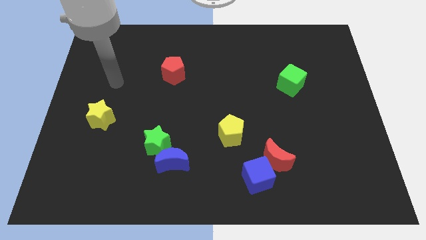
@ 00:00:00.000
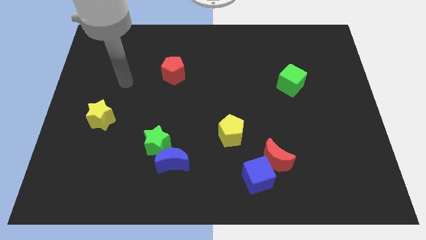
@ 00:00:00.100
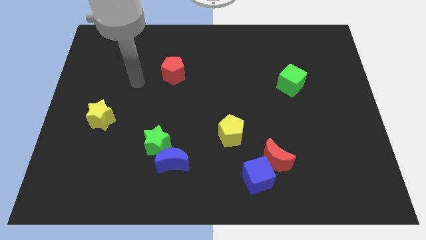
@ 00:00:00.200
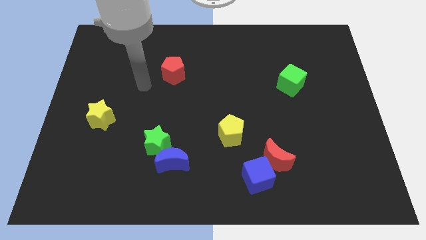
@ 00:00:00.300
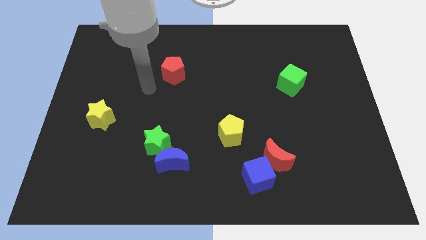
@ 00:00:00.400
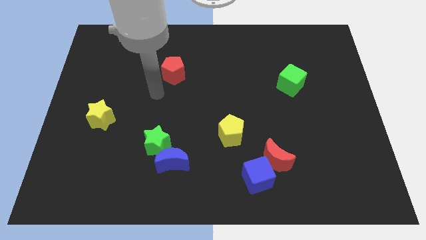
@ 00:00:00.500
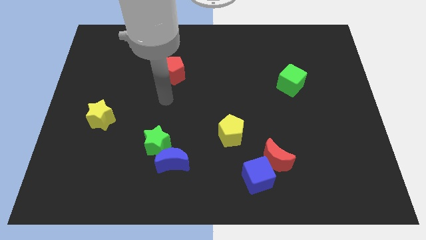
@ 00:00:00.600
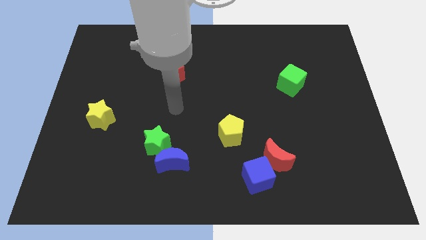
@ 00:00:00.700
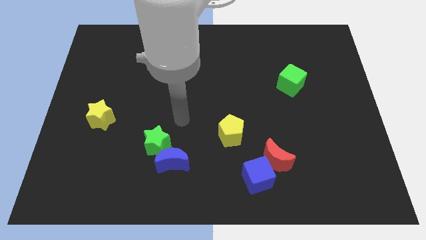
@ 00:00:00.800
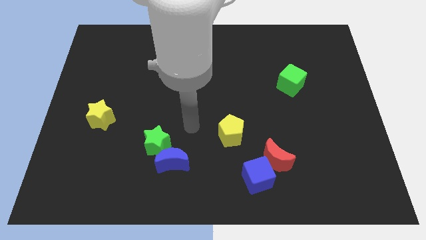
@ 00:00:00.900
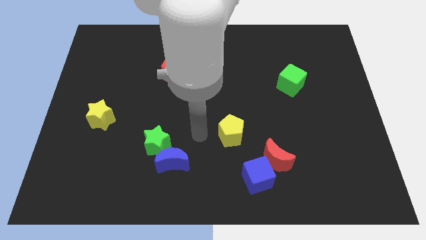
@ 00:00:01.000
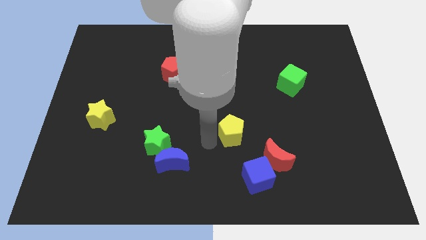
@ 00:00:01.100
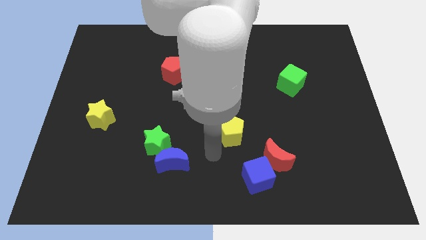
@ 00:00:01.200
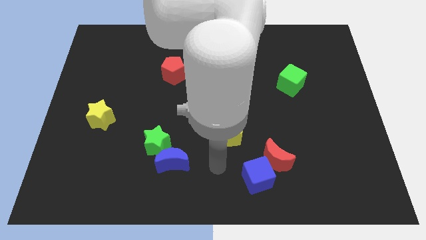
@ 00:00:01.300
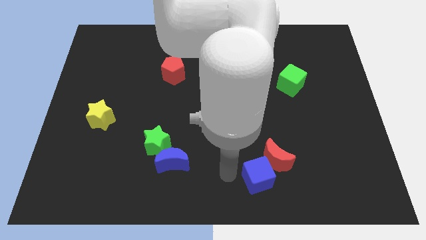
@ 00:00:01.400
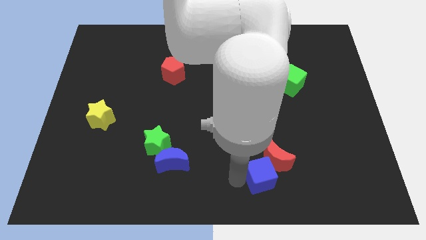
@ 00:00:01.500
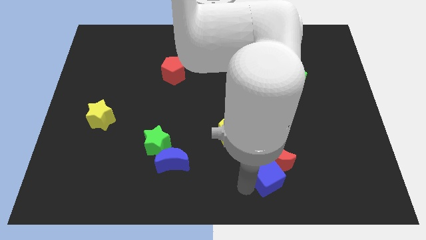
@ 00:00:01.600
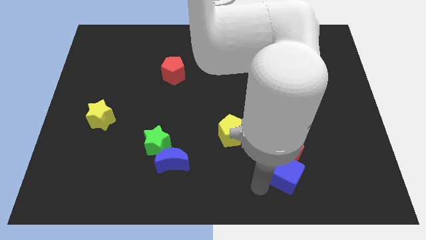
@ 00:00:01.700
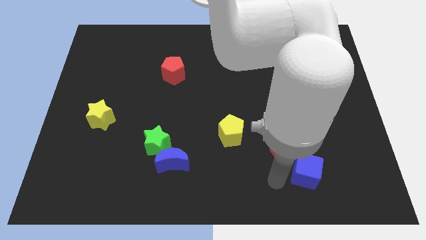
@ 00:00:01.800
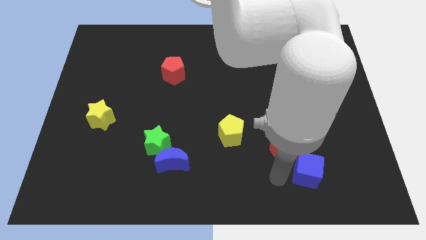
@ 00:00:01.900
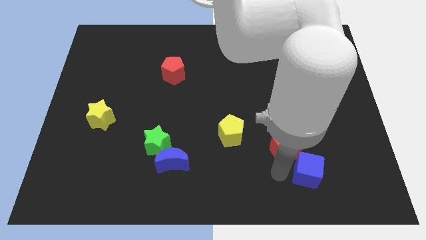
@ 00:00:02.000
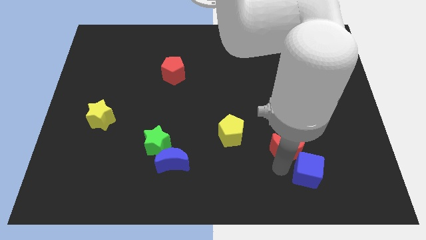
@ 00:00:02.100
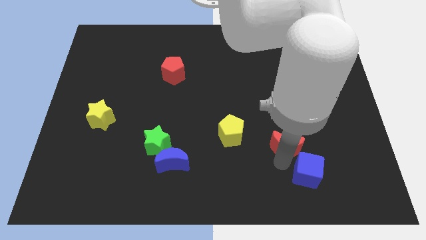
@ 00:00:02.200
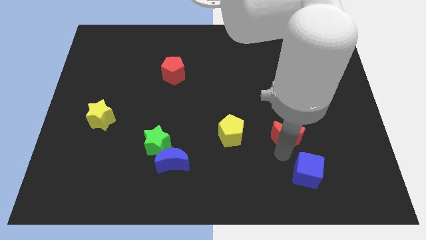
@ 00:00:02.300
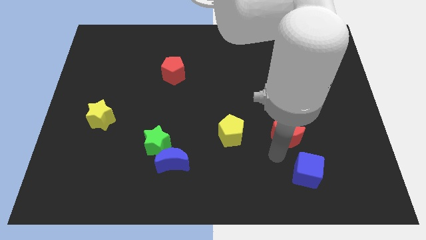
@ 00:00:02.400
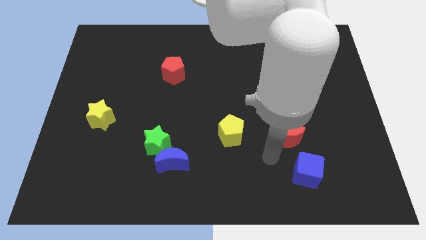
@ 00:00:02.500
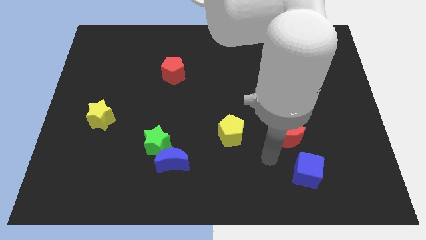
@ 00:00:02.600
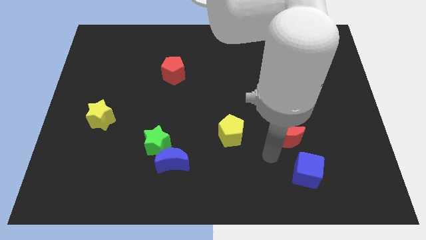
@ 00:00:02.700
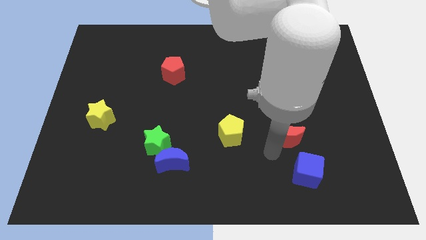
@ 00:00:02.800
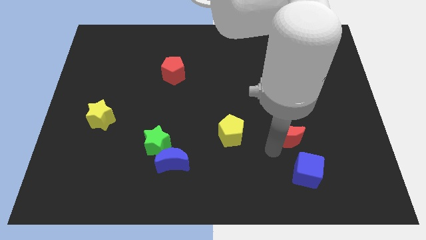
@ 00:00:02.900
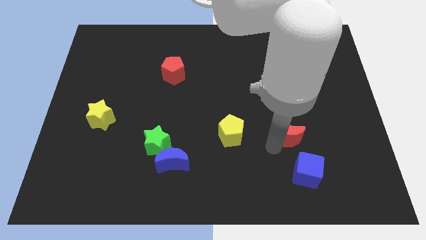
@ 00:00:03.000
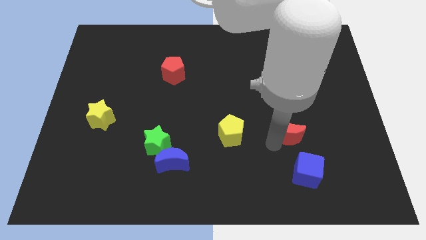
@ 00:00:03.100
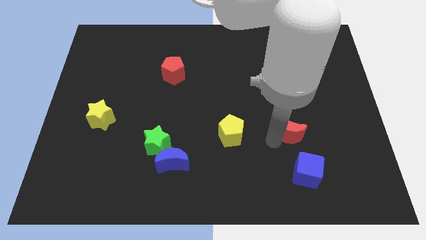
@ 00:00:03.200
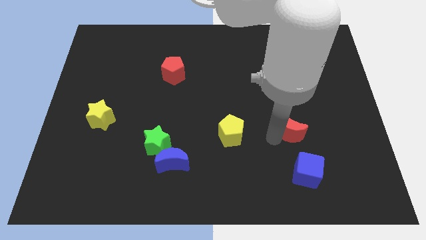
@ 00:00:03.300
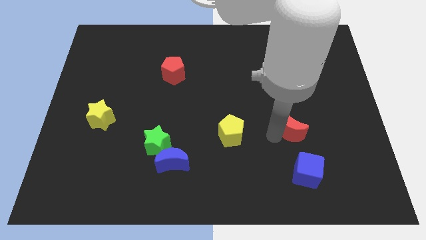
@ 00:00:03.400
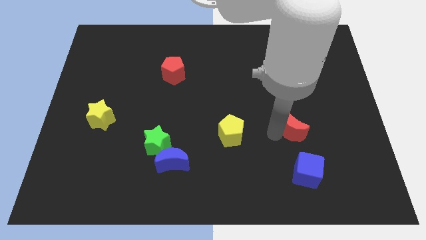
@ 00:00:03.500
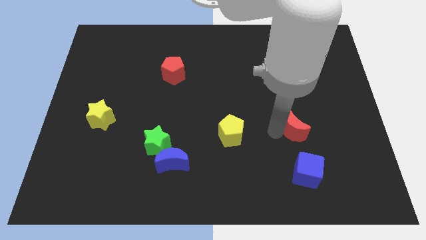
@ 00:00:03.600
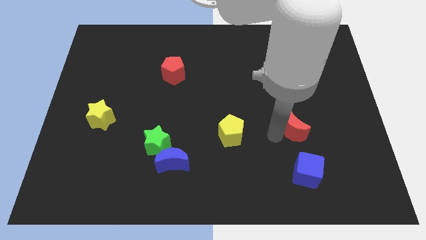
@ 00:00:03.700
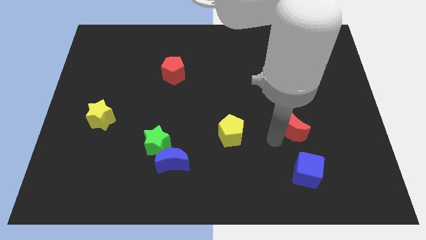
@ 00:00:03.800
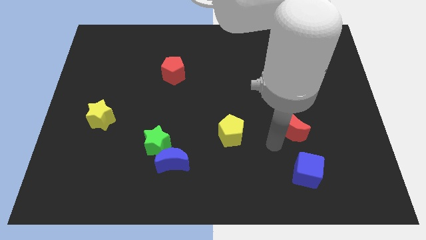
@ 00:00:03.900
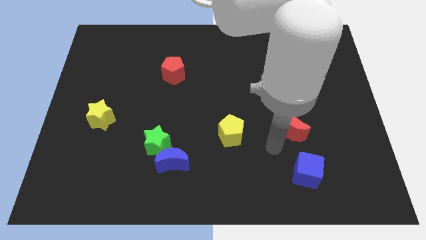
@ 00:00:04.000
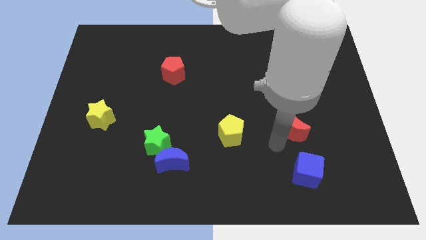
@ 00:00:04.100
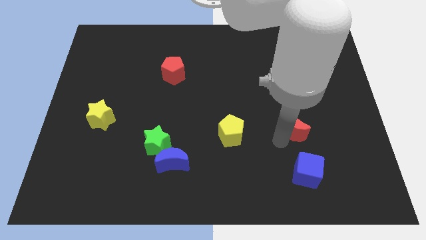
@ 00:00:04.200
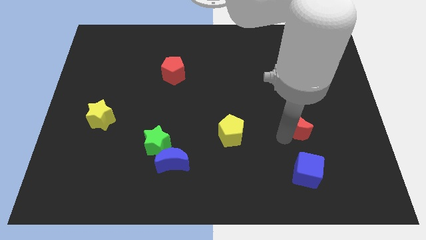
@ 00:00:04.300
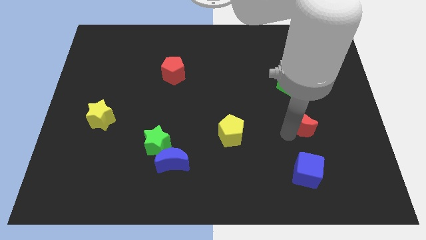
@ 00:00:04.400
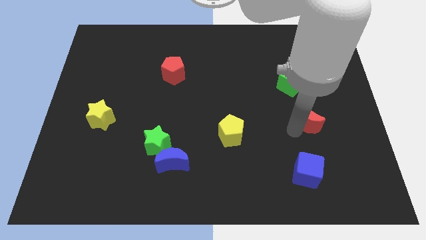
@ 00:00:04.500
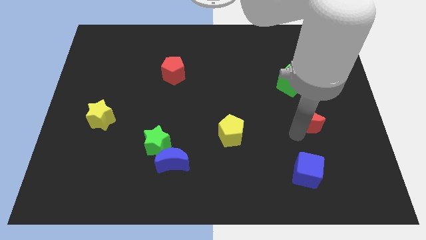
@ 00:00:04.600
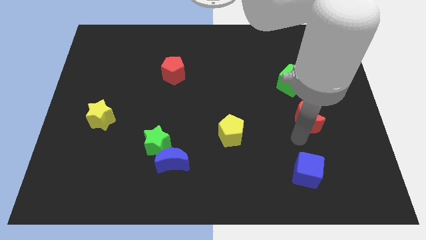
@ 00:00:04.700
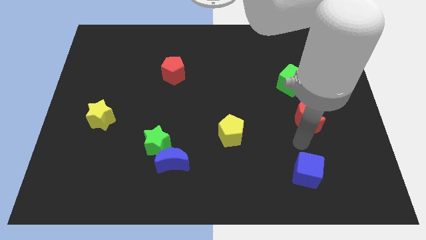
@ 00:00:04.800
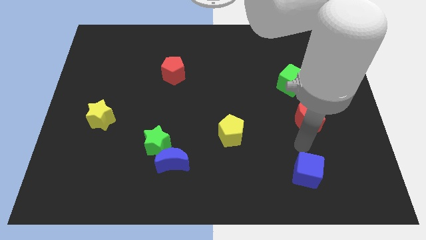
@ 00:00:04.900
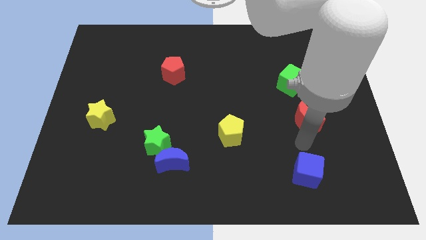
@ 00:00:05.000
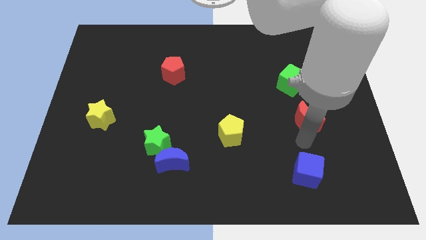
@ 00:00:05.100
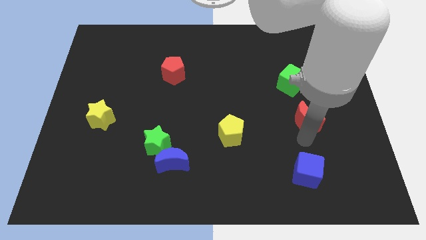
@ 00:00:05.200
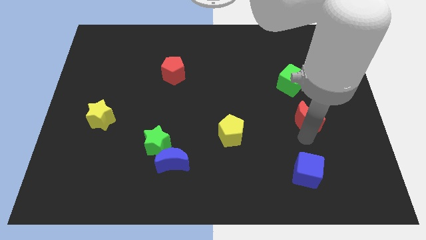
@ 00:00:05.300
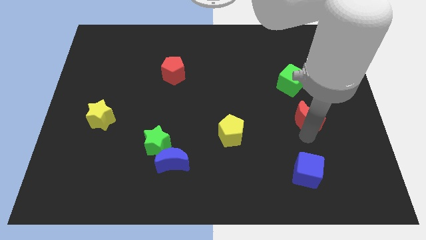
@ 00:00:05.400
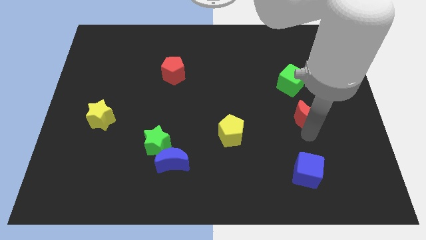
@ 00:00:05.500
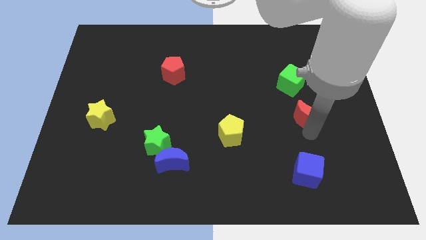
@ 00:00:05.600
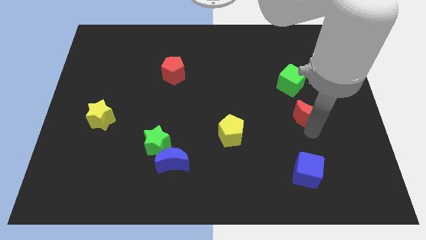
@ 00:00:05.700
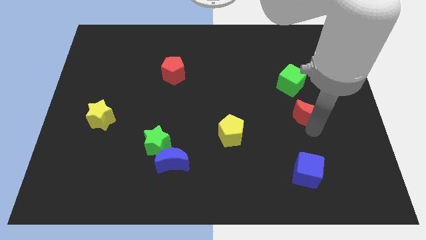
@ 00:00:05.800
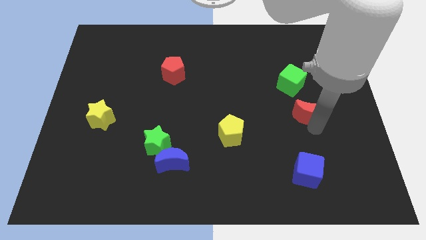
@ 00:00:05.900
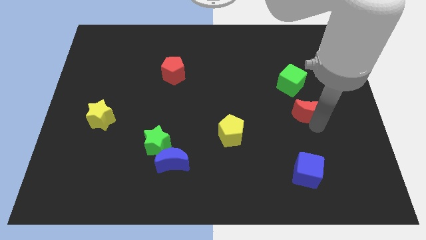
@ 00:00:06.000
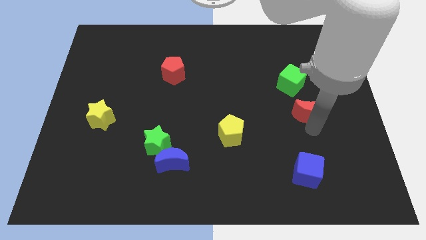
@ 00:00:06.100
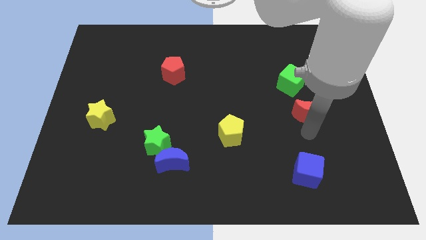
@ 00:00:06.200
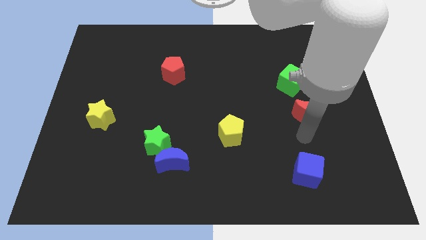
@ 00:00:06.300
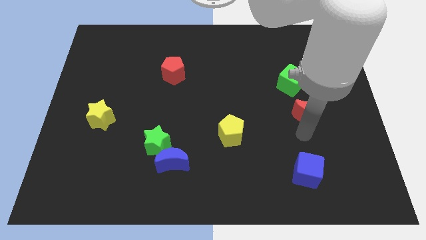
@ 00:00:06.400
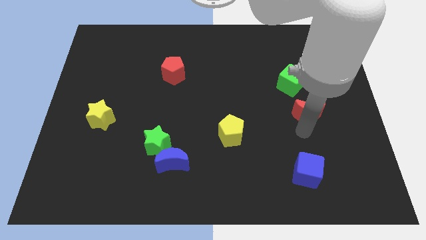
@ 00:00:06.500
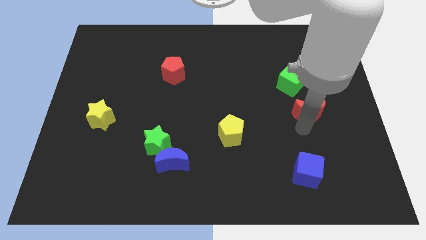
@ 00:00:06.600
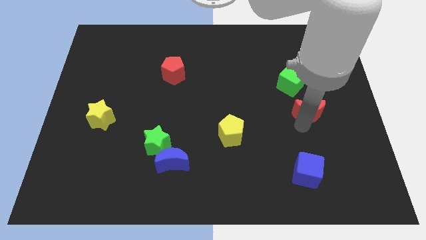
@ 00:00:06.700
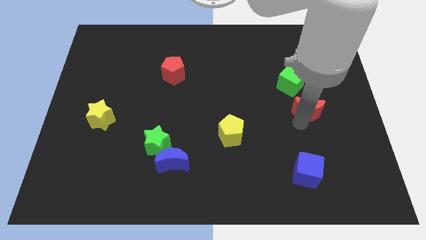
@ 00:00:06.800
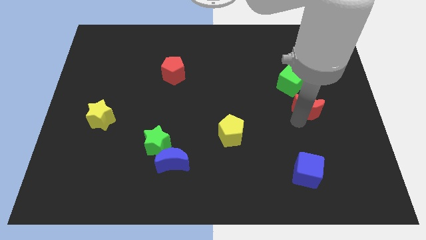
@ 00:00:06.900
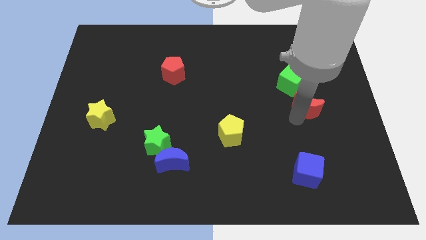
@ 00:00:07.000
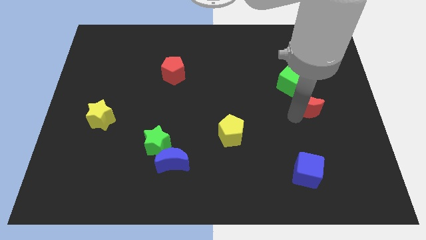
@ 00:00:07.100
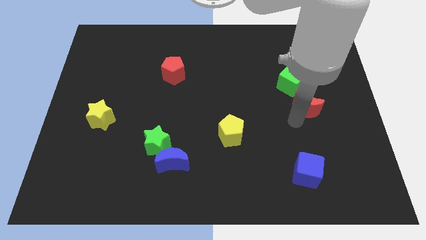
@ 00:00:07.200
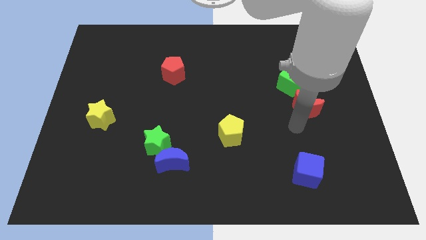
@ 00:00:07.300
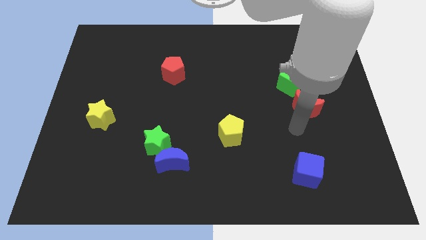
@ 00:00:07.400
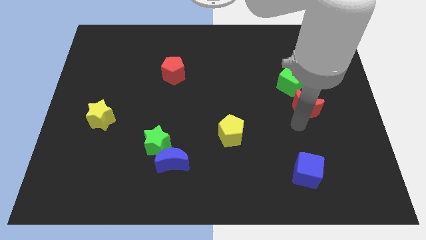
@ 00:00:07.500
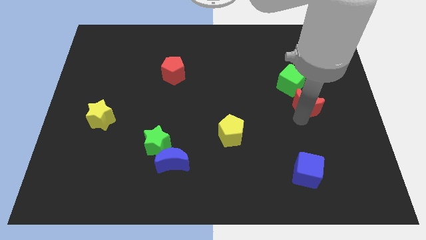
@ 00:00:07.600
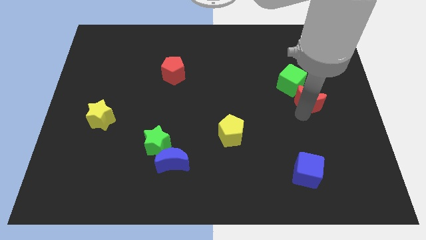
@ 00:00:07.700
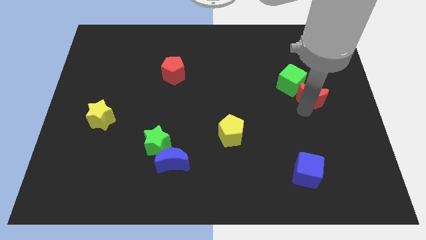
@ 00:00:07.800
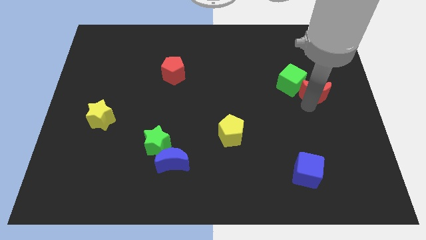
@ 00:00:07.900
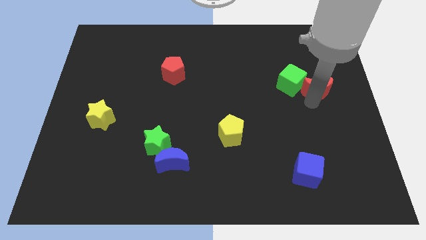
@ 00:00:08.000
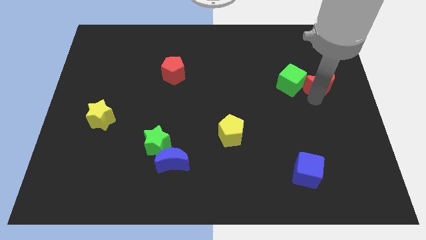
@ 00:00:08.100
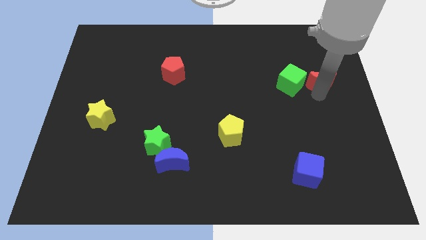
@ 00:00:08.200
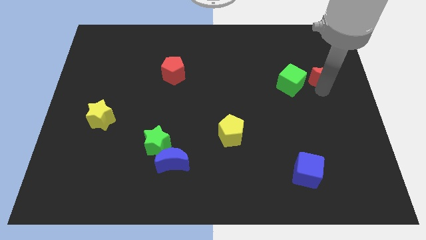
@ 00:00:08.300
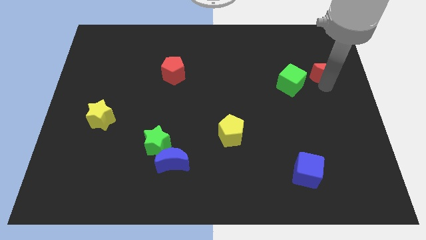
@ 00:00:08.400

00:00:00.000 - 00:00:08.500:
push the red moon to the top right side of the green cube

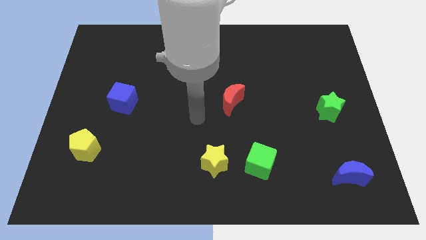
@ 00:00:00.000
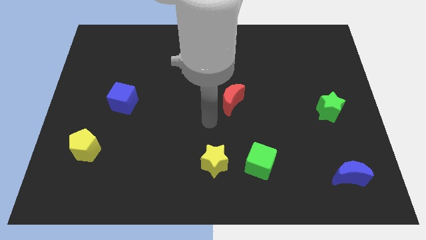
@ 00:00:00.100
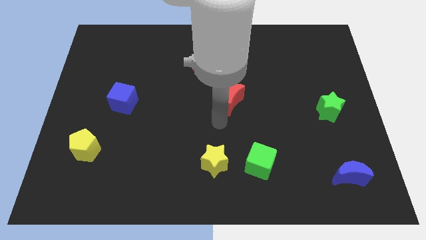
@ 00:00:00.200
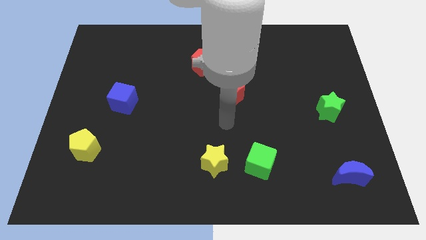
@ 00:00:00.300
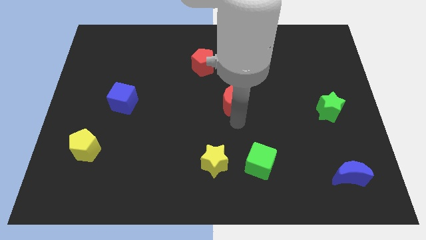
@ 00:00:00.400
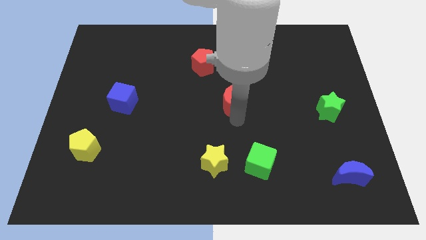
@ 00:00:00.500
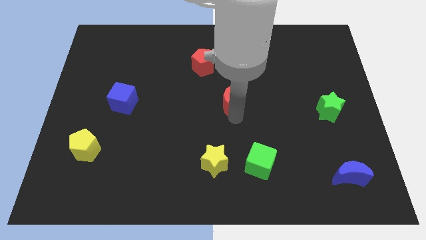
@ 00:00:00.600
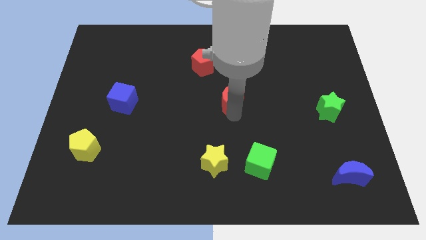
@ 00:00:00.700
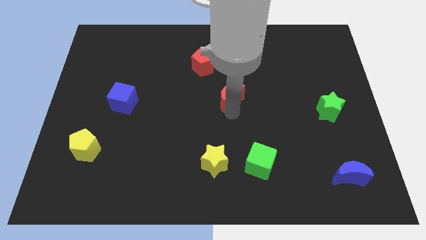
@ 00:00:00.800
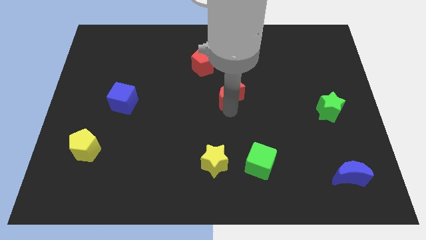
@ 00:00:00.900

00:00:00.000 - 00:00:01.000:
slide the red moon diagonally down and to the right of the red pentagon
